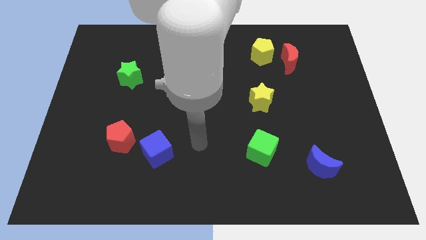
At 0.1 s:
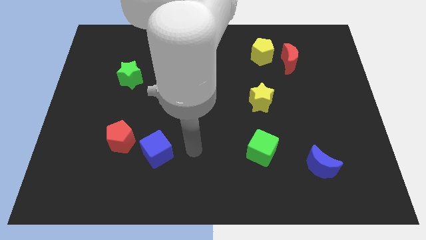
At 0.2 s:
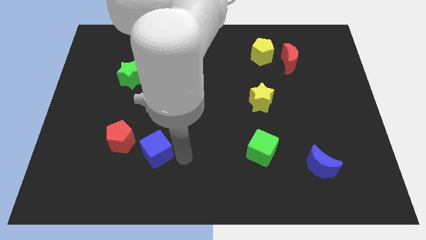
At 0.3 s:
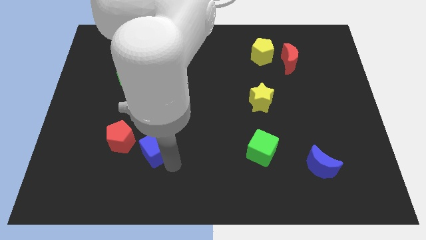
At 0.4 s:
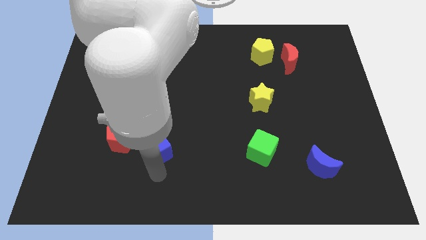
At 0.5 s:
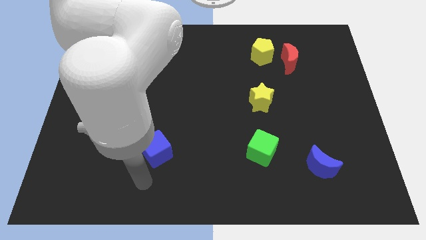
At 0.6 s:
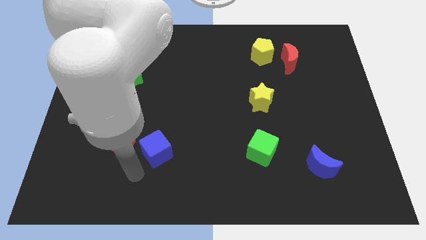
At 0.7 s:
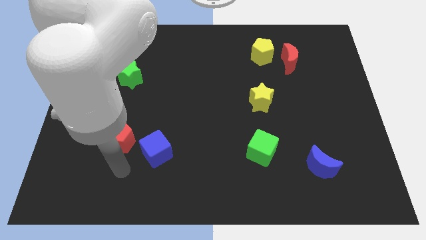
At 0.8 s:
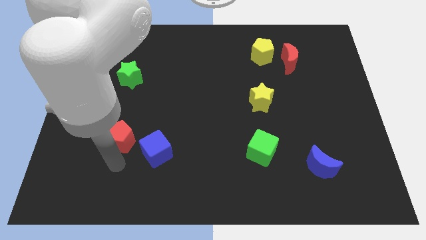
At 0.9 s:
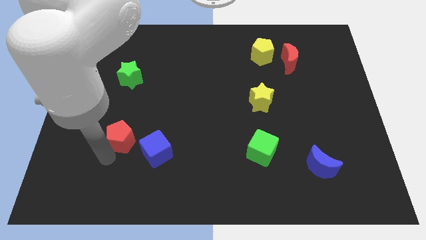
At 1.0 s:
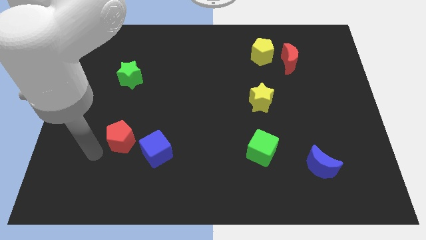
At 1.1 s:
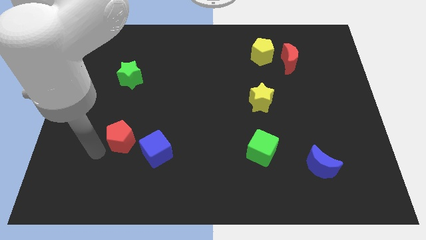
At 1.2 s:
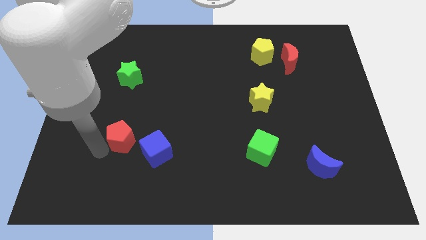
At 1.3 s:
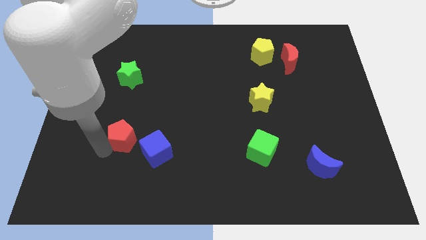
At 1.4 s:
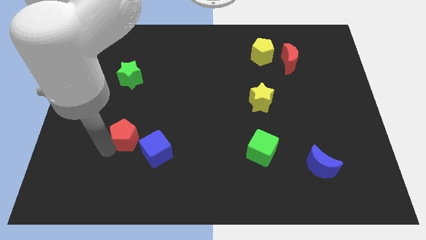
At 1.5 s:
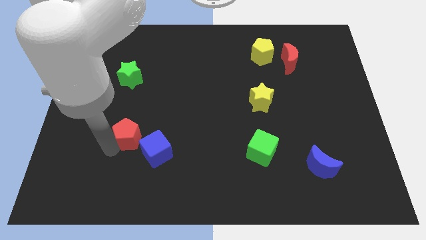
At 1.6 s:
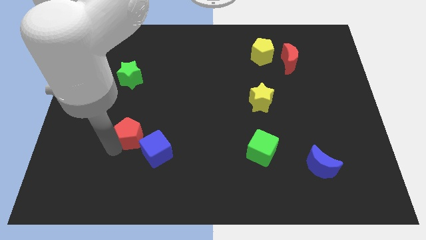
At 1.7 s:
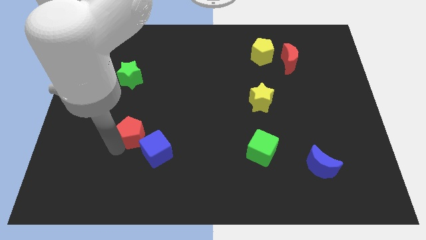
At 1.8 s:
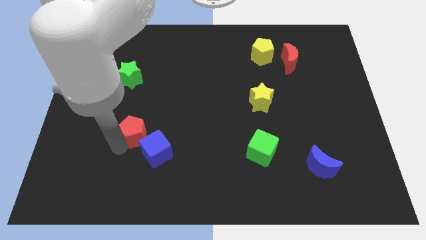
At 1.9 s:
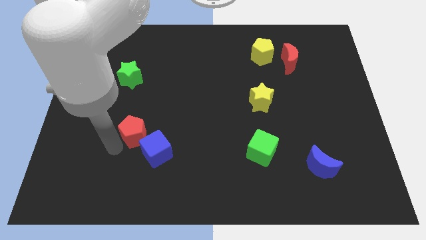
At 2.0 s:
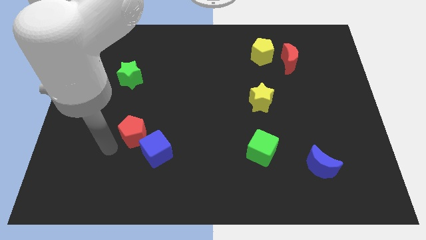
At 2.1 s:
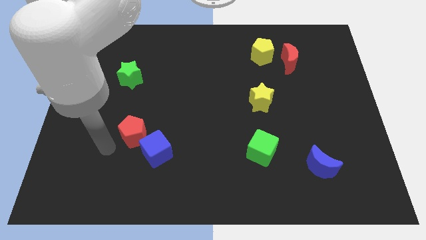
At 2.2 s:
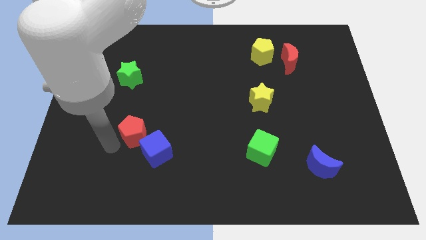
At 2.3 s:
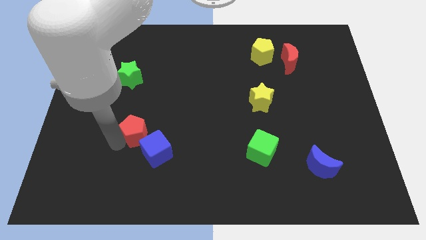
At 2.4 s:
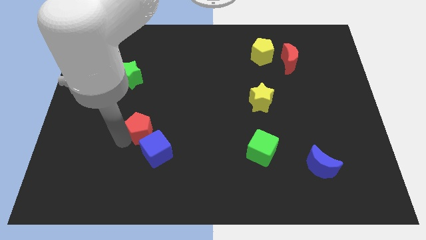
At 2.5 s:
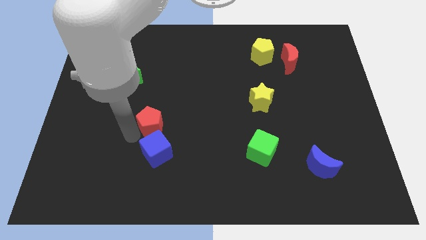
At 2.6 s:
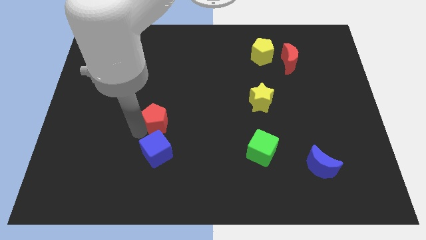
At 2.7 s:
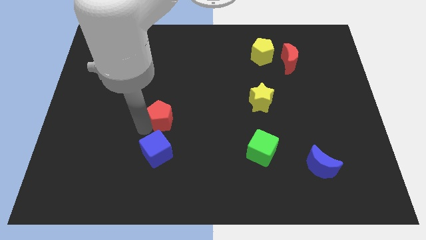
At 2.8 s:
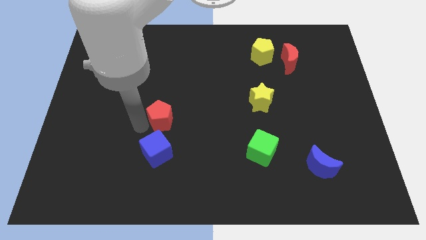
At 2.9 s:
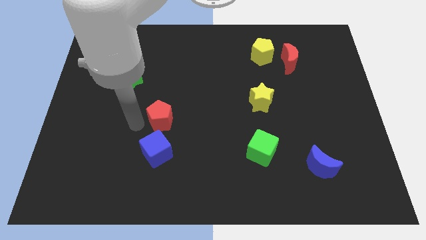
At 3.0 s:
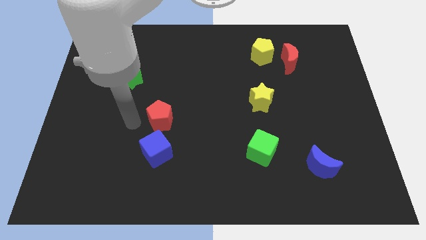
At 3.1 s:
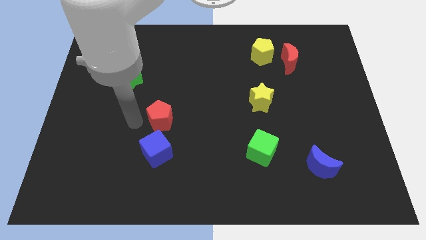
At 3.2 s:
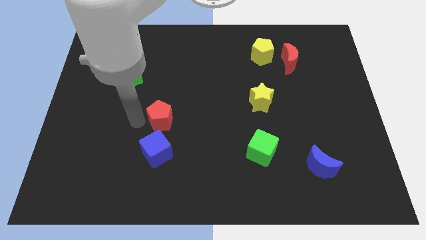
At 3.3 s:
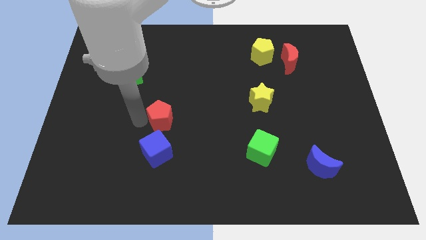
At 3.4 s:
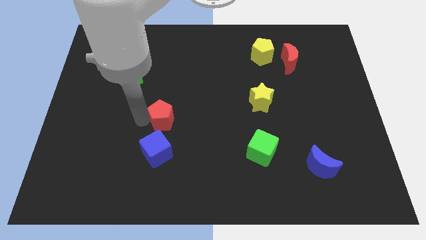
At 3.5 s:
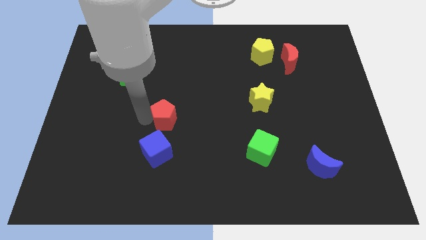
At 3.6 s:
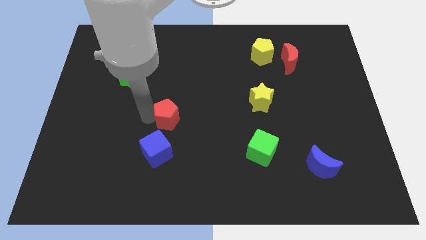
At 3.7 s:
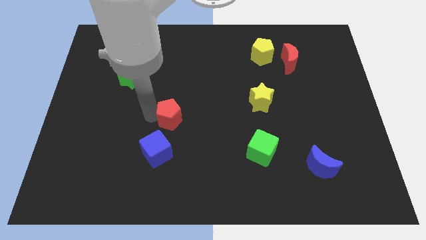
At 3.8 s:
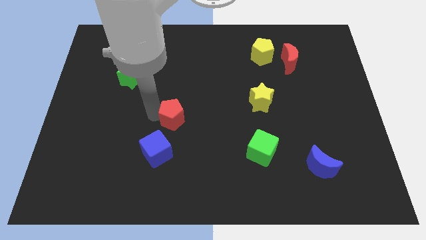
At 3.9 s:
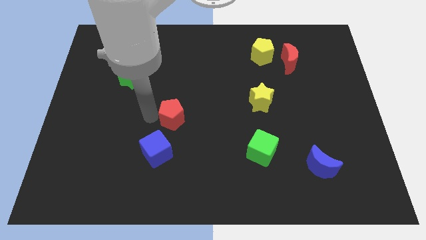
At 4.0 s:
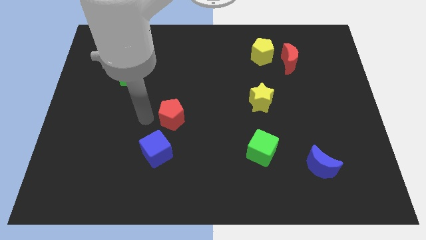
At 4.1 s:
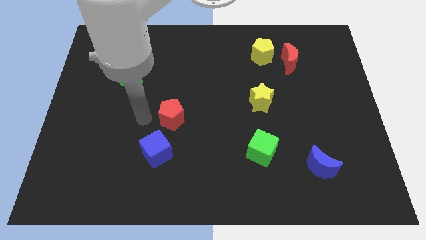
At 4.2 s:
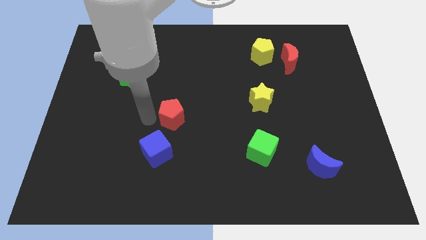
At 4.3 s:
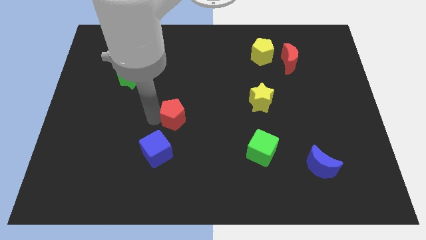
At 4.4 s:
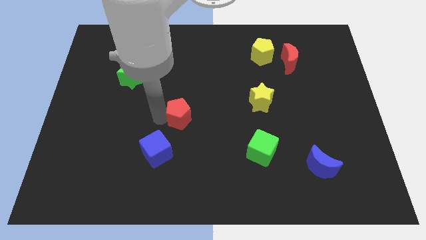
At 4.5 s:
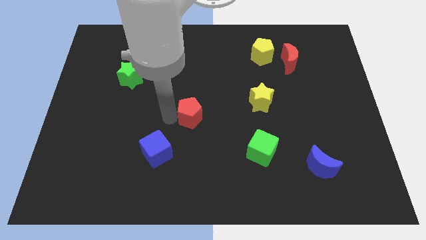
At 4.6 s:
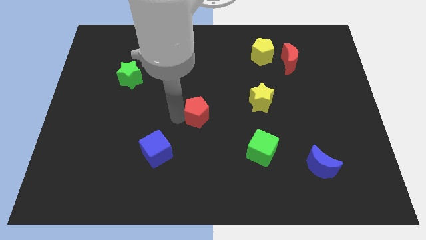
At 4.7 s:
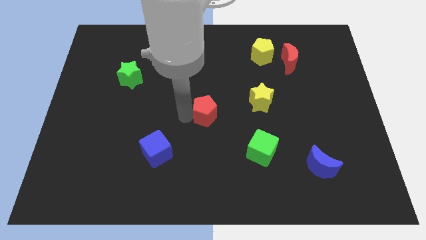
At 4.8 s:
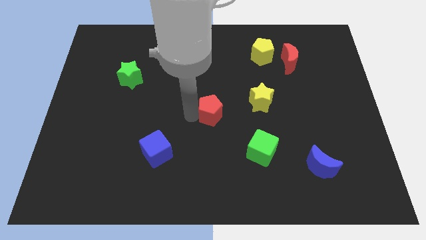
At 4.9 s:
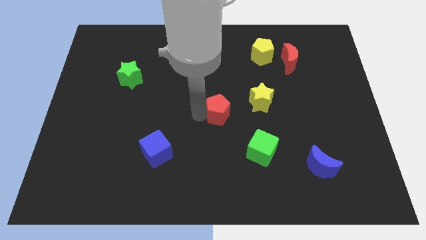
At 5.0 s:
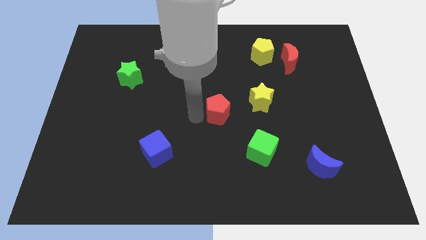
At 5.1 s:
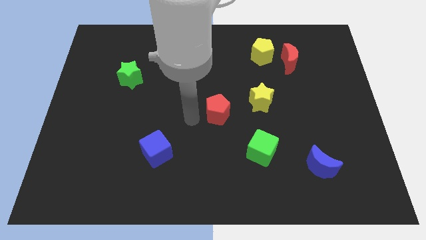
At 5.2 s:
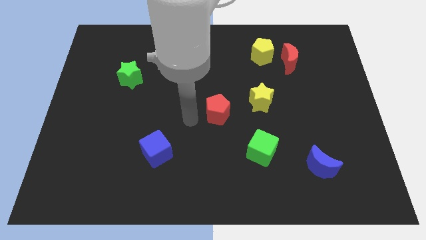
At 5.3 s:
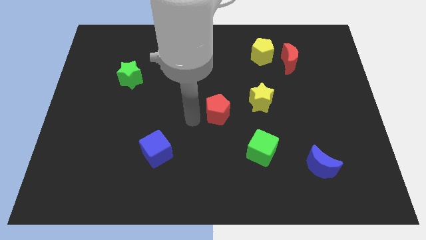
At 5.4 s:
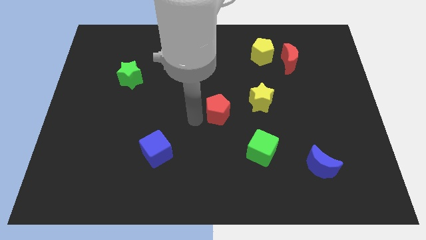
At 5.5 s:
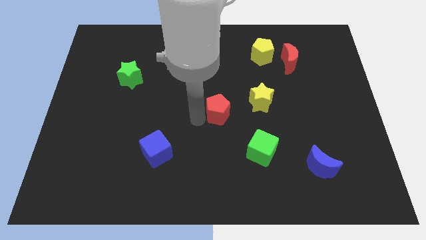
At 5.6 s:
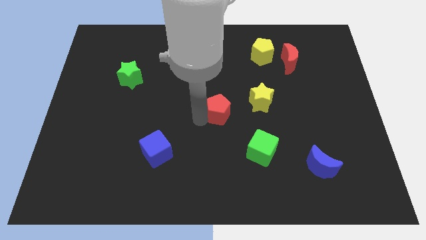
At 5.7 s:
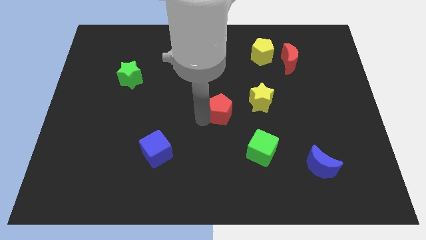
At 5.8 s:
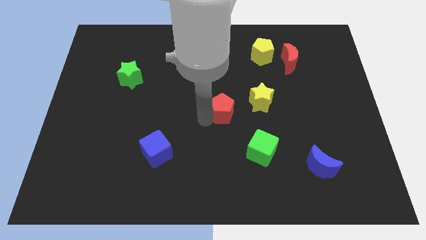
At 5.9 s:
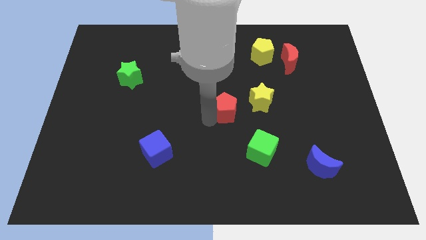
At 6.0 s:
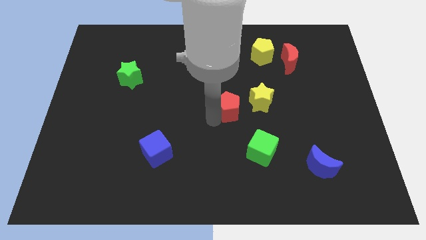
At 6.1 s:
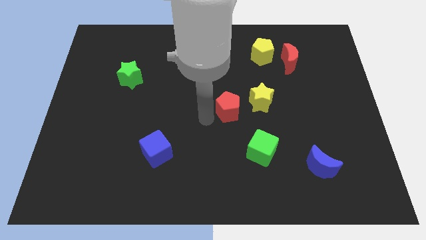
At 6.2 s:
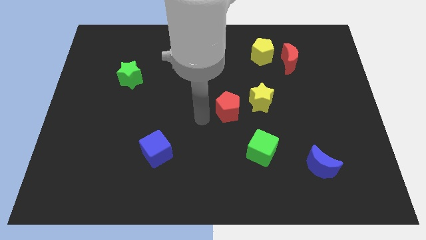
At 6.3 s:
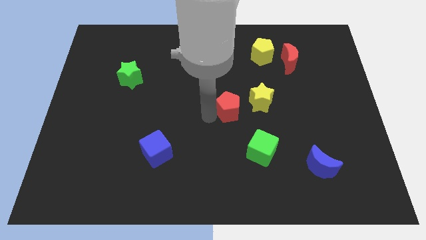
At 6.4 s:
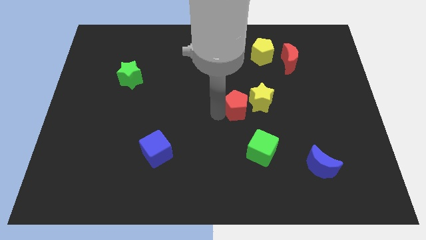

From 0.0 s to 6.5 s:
push the red pentagon next to the yellow star

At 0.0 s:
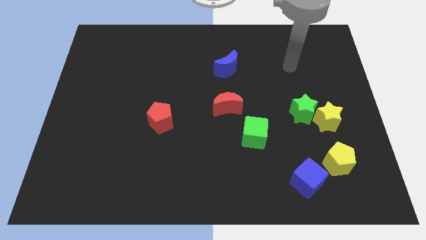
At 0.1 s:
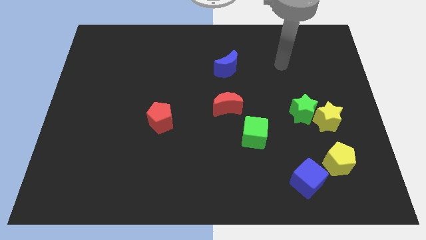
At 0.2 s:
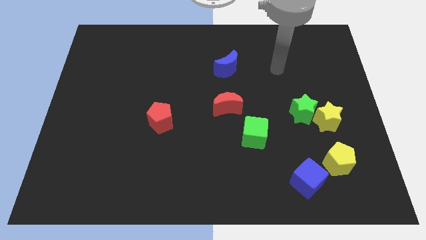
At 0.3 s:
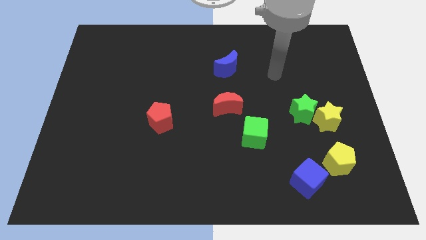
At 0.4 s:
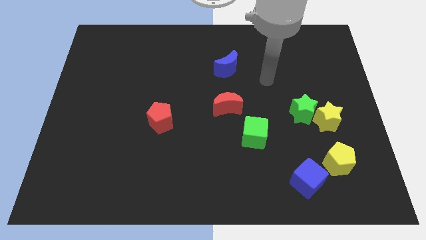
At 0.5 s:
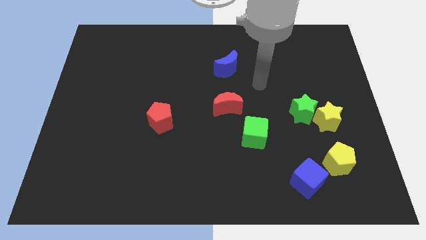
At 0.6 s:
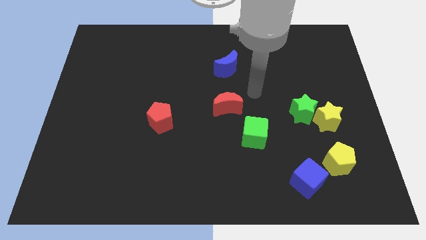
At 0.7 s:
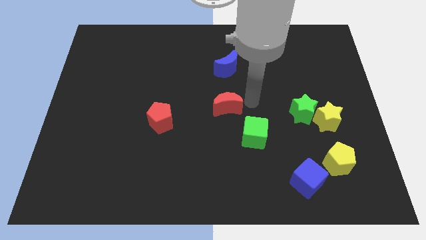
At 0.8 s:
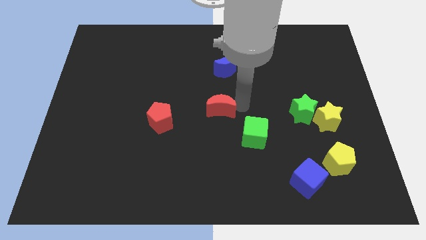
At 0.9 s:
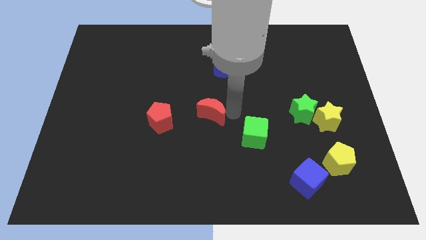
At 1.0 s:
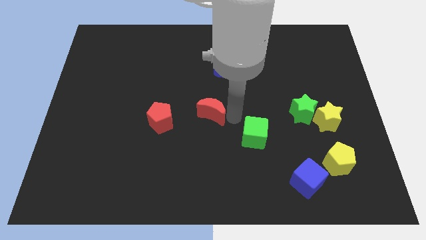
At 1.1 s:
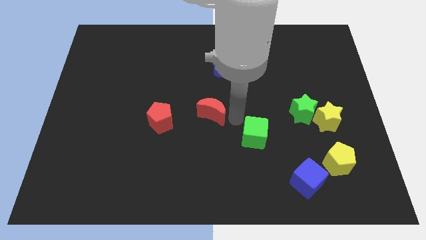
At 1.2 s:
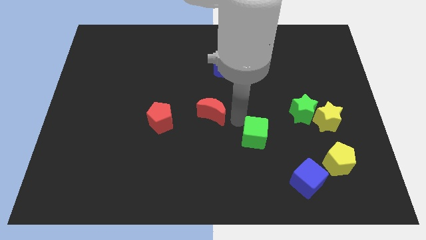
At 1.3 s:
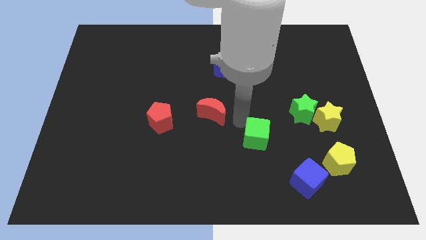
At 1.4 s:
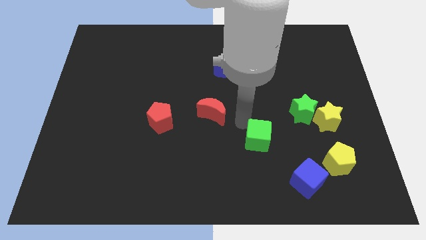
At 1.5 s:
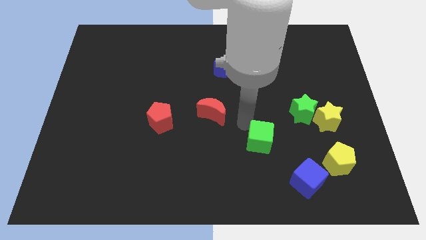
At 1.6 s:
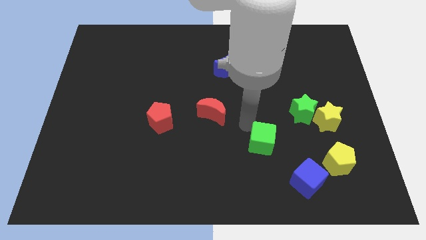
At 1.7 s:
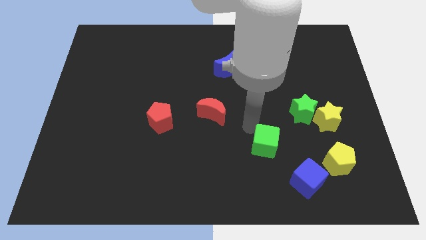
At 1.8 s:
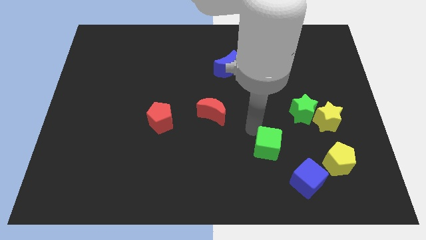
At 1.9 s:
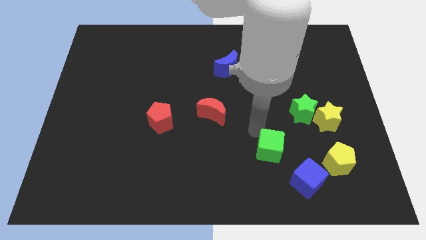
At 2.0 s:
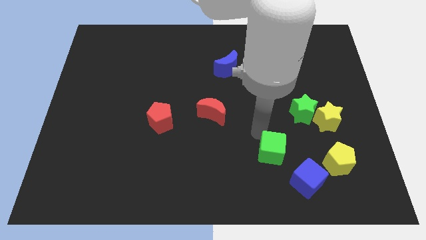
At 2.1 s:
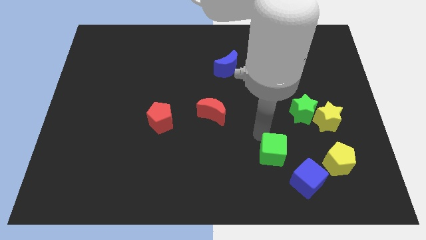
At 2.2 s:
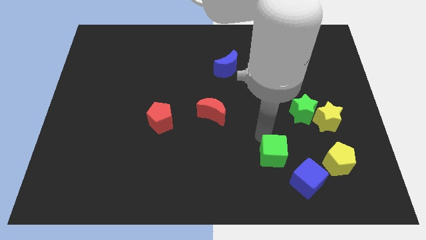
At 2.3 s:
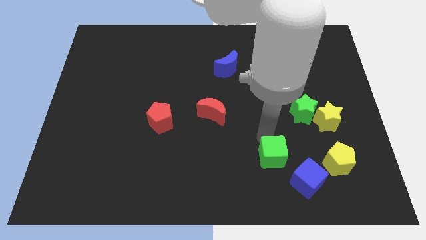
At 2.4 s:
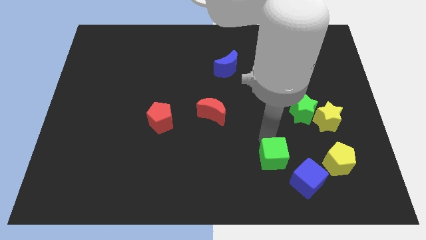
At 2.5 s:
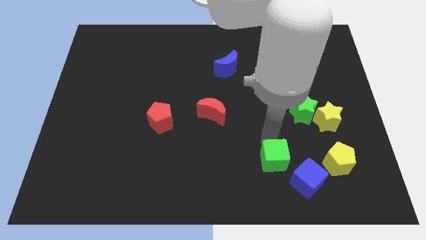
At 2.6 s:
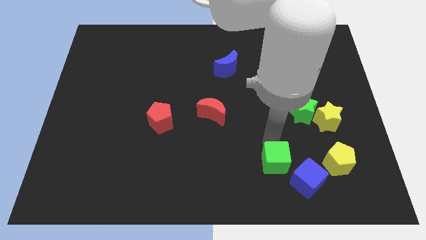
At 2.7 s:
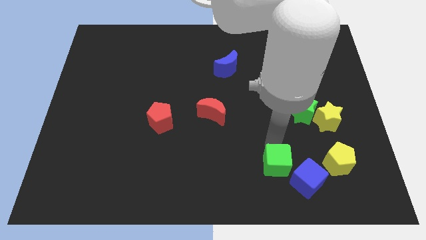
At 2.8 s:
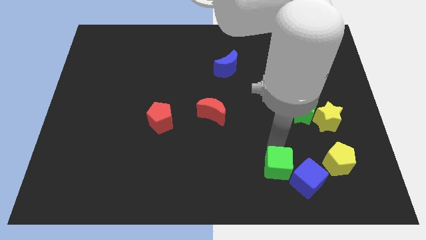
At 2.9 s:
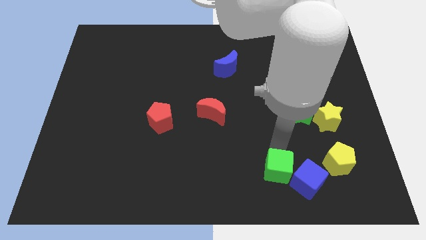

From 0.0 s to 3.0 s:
slide the green cube close to the blue cube
